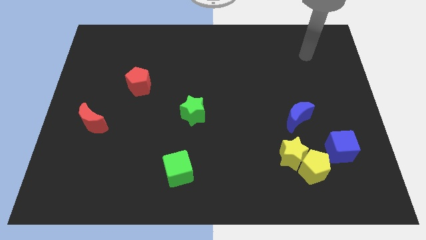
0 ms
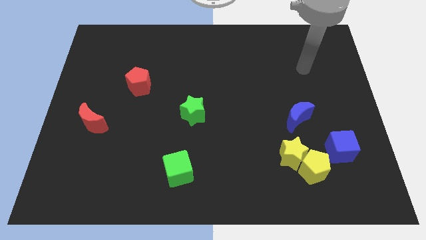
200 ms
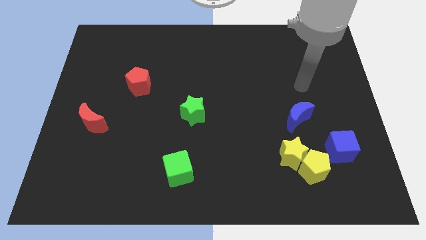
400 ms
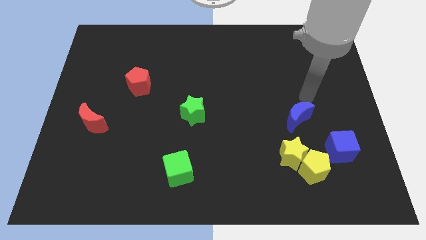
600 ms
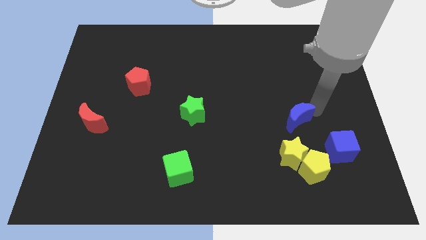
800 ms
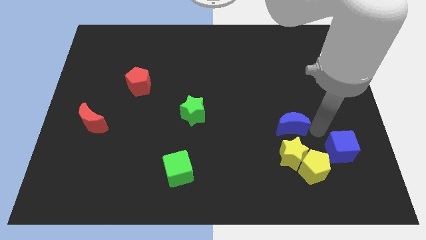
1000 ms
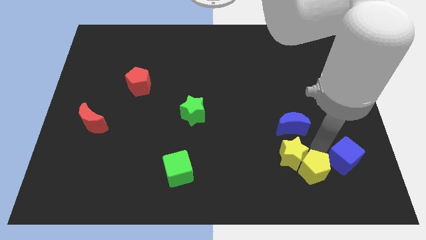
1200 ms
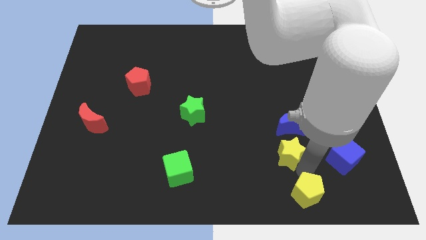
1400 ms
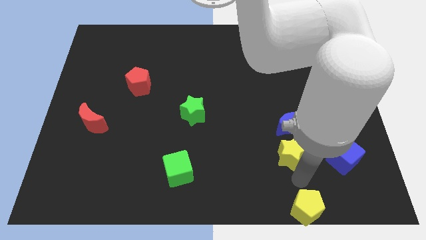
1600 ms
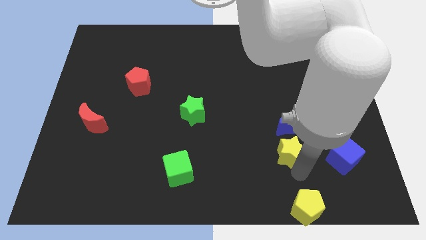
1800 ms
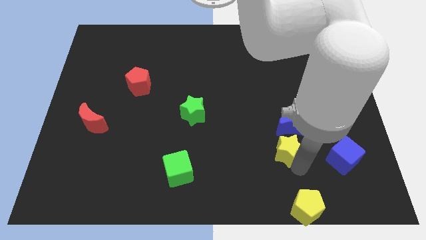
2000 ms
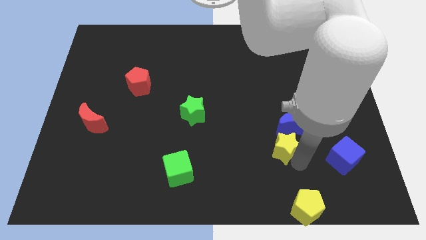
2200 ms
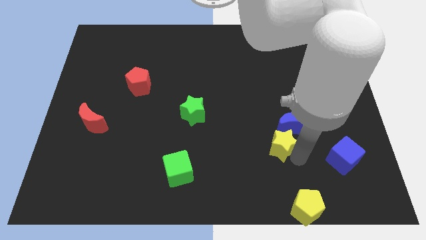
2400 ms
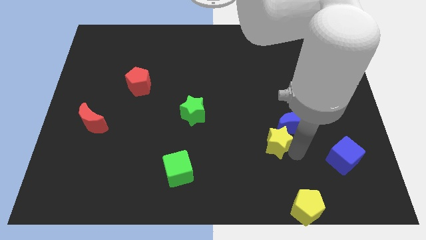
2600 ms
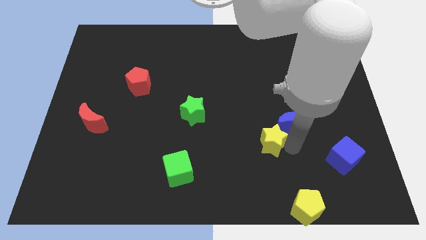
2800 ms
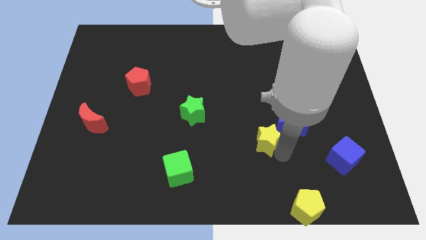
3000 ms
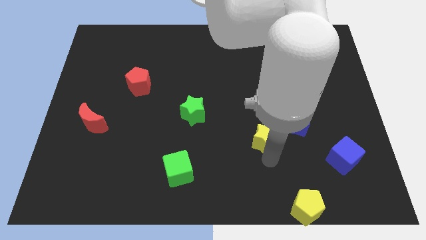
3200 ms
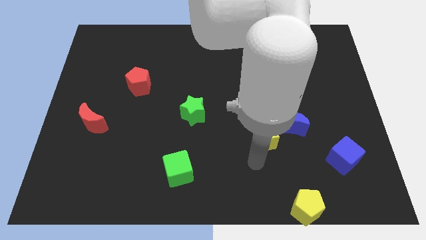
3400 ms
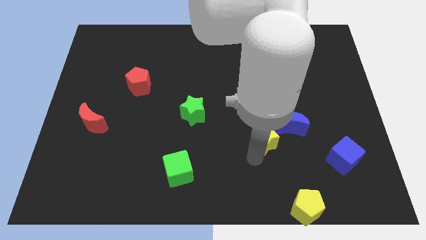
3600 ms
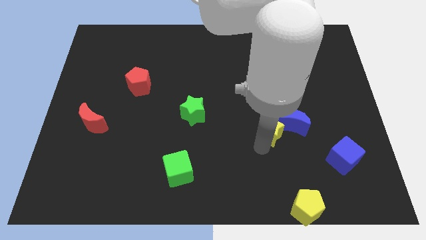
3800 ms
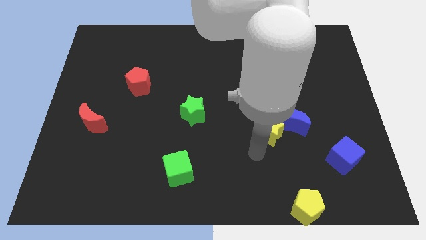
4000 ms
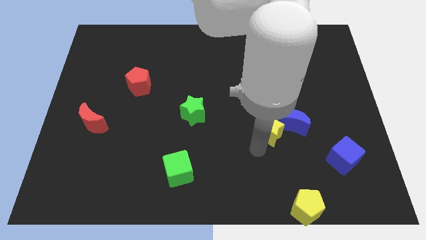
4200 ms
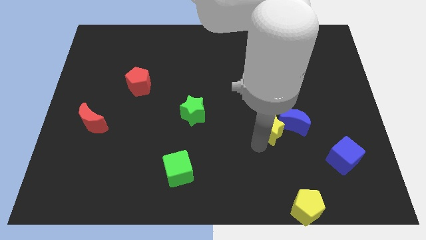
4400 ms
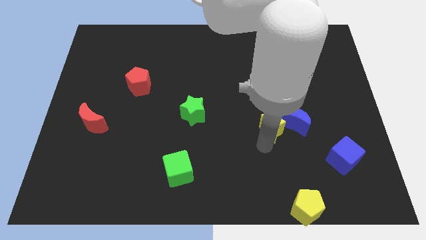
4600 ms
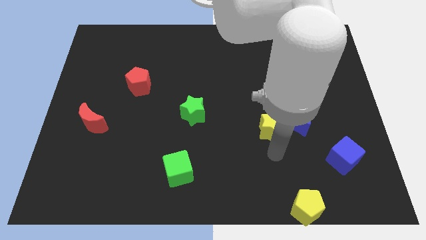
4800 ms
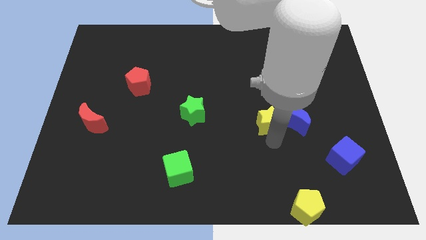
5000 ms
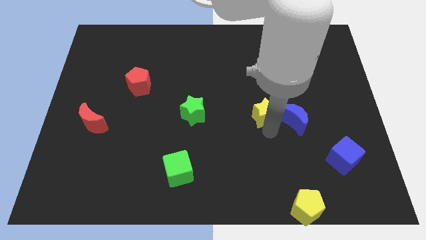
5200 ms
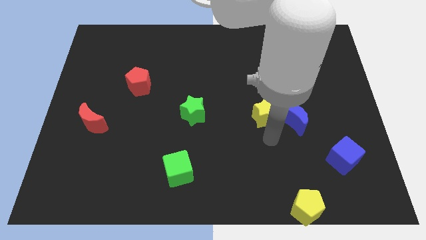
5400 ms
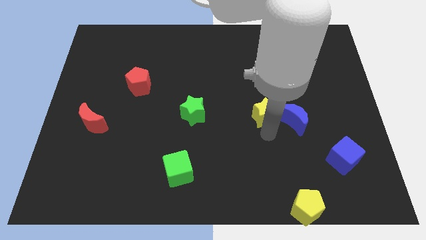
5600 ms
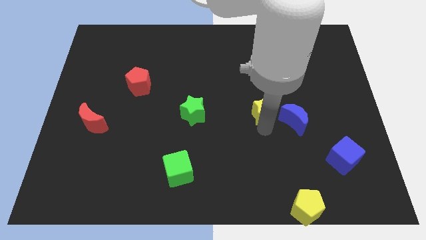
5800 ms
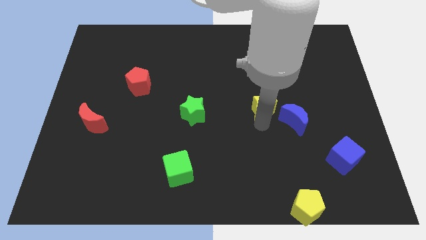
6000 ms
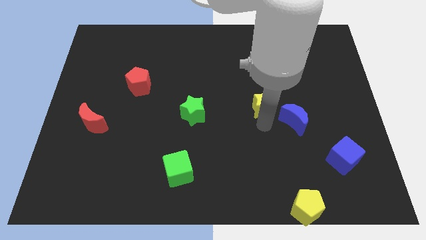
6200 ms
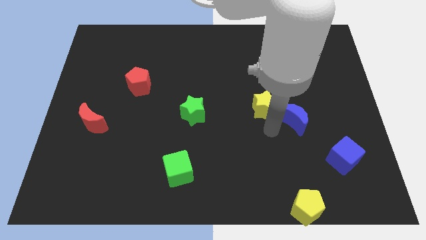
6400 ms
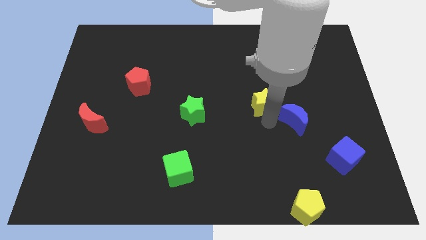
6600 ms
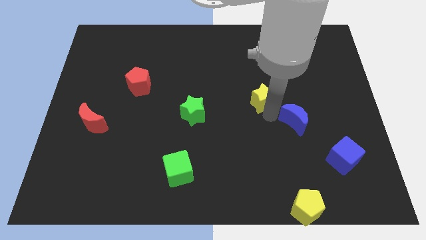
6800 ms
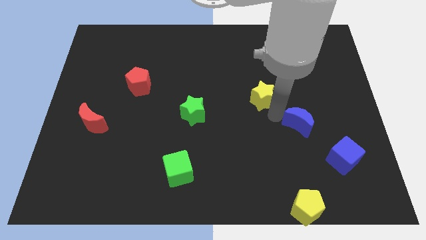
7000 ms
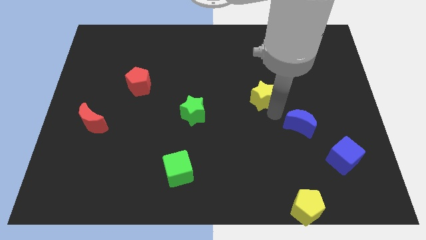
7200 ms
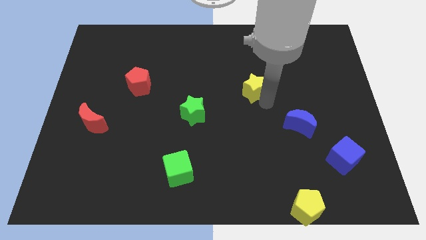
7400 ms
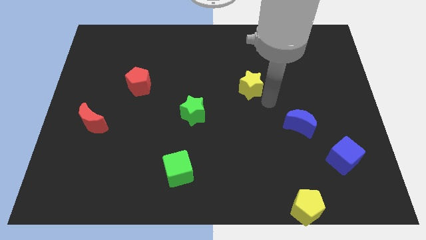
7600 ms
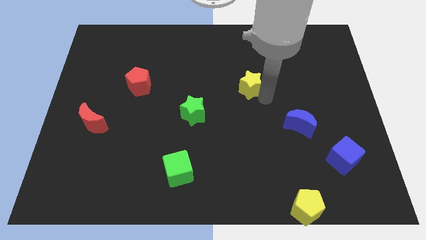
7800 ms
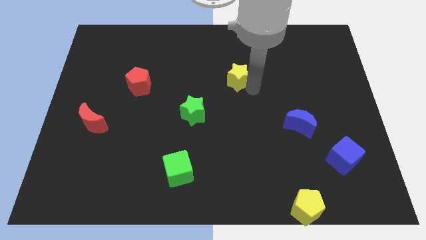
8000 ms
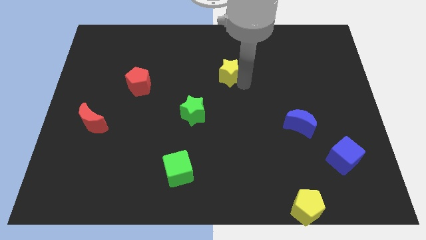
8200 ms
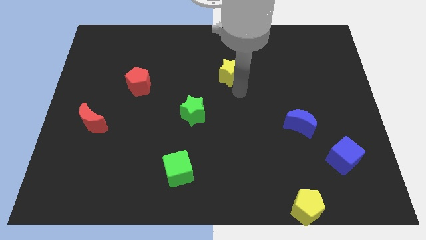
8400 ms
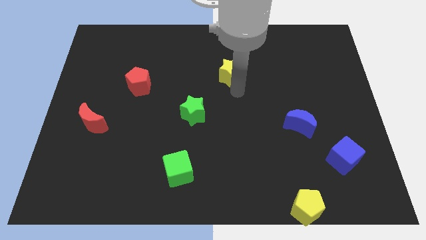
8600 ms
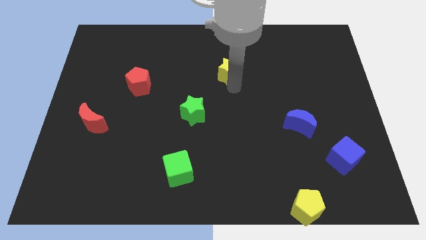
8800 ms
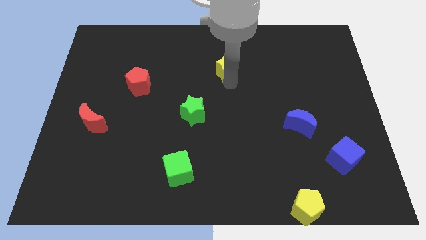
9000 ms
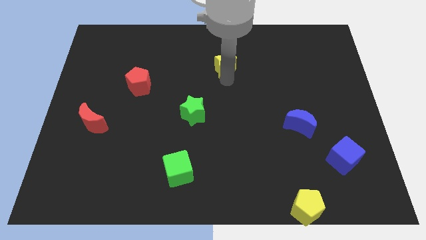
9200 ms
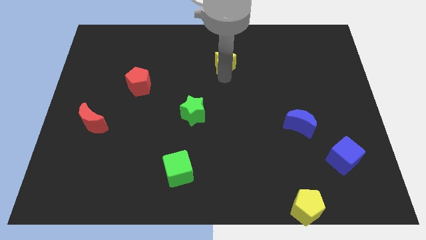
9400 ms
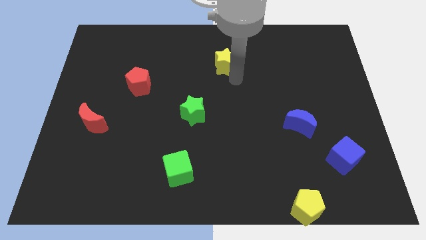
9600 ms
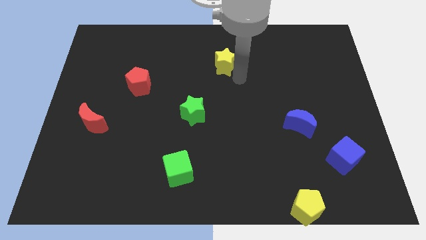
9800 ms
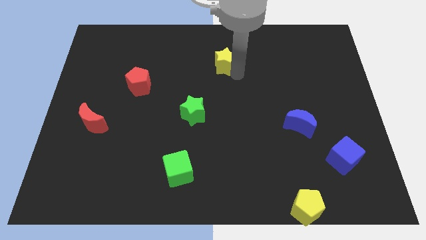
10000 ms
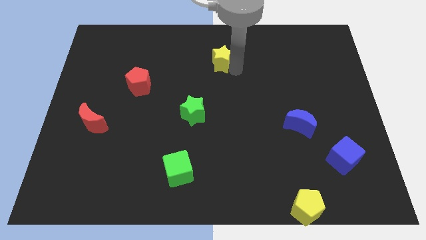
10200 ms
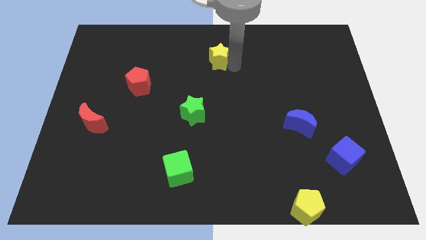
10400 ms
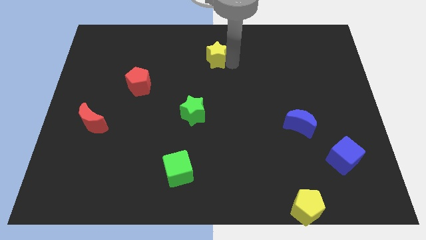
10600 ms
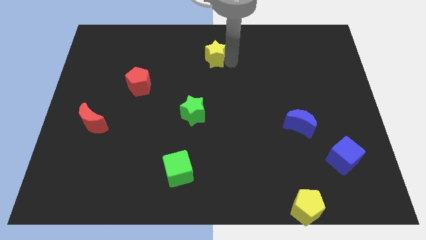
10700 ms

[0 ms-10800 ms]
slide the yellow star to the top

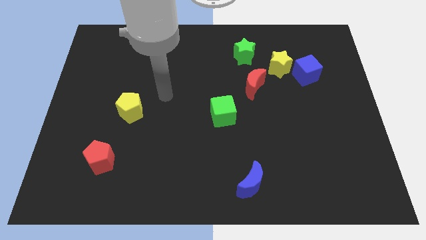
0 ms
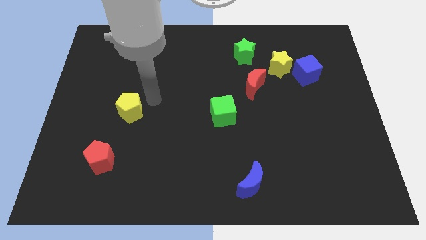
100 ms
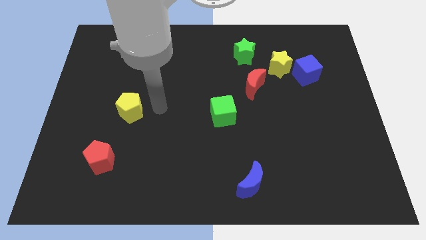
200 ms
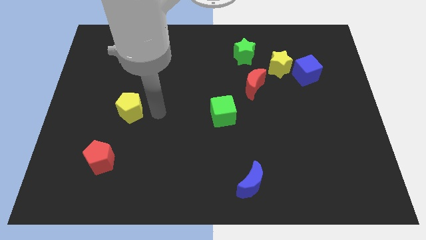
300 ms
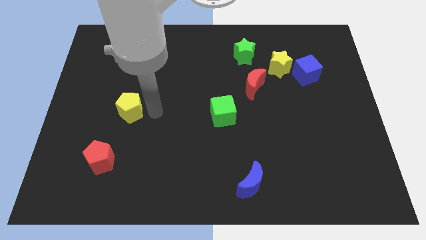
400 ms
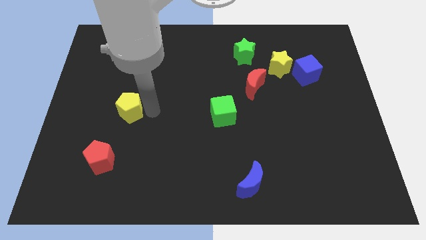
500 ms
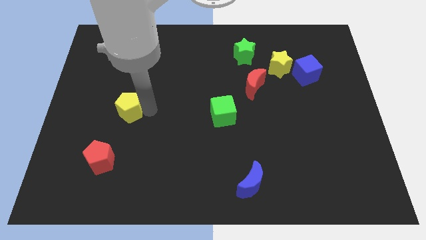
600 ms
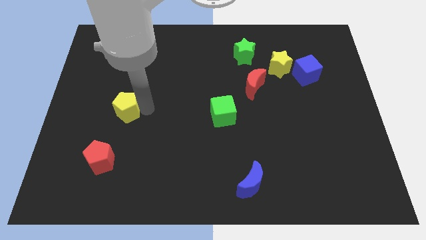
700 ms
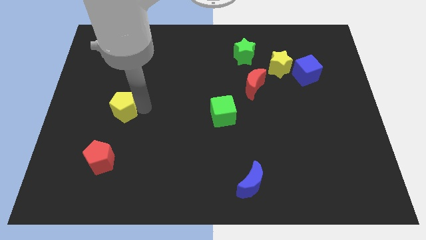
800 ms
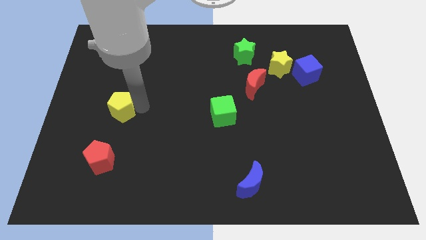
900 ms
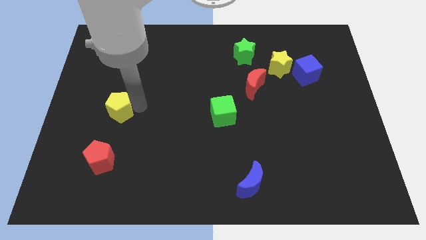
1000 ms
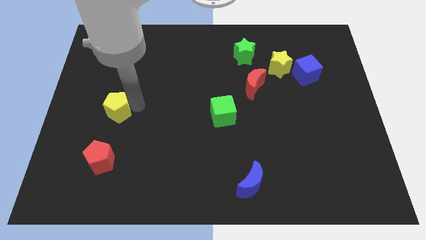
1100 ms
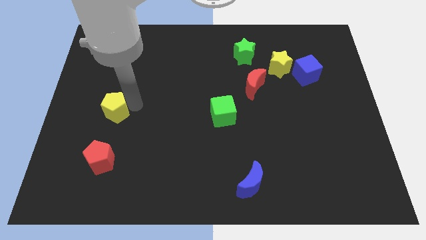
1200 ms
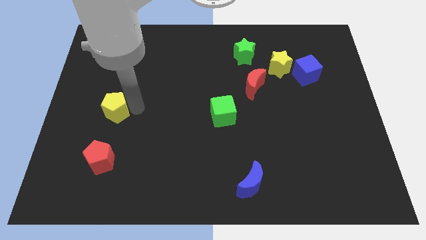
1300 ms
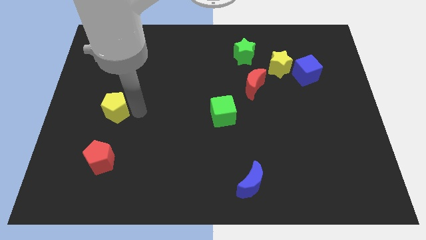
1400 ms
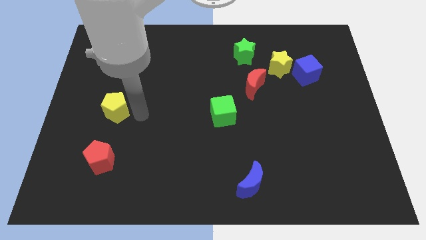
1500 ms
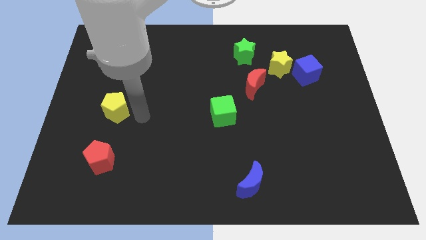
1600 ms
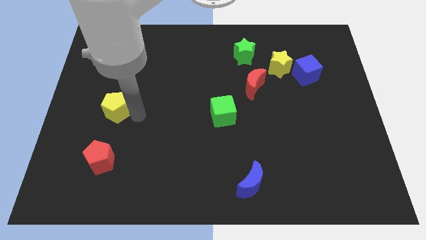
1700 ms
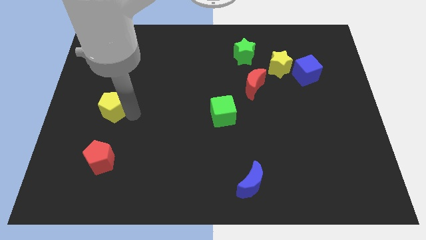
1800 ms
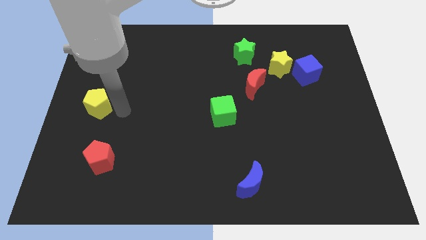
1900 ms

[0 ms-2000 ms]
slide the yellow pentagon to the left side
